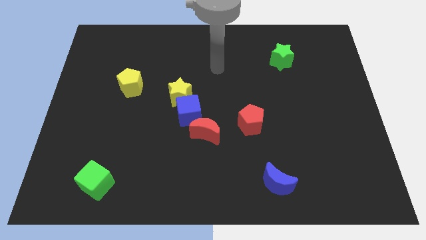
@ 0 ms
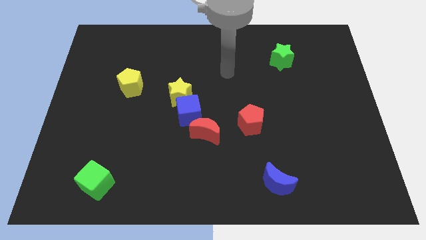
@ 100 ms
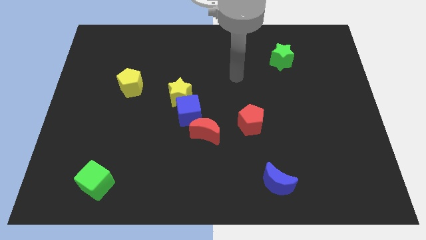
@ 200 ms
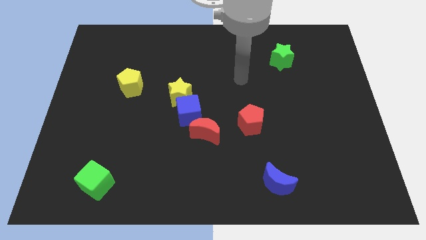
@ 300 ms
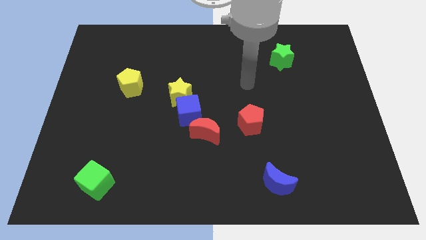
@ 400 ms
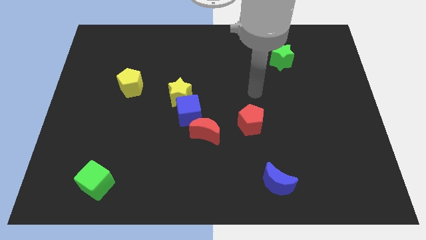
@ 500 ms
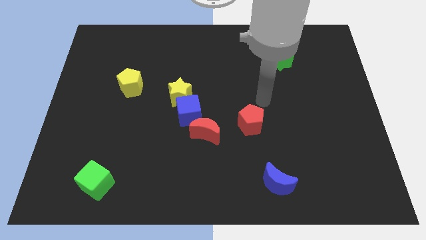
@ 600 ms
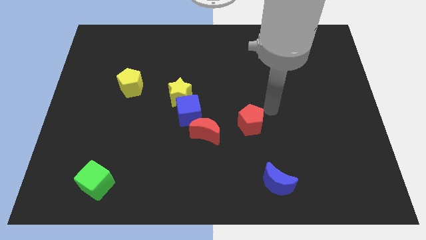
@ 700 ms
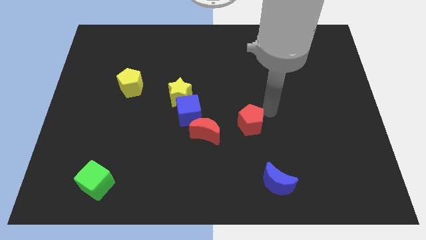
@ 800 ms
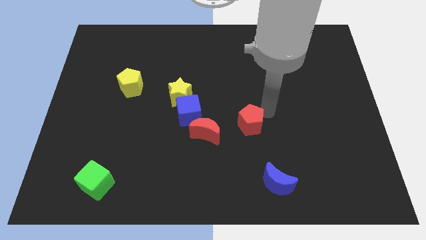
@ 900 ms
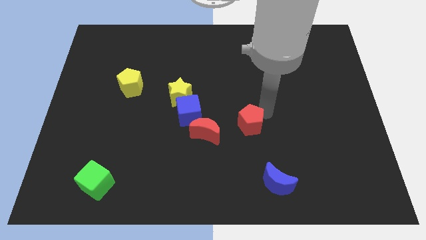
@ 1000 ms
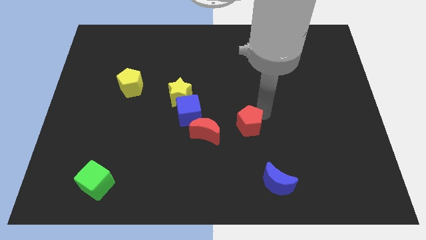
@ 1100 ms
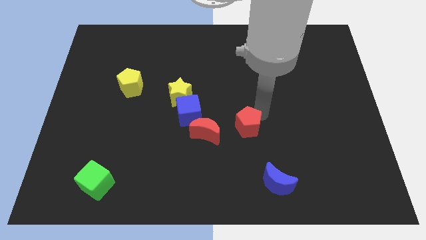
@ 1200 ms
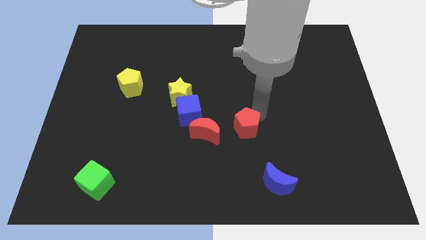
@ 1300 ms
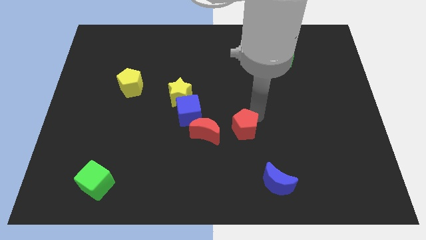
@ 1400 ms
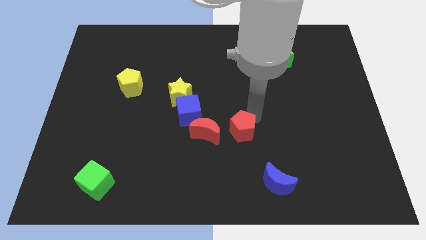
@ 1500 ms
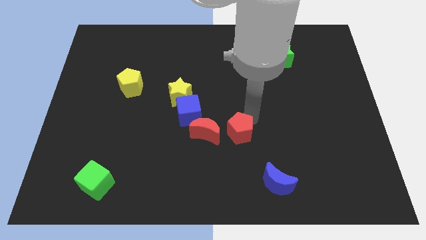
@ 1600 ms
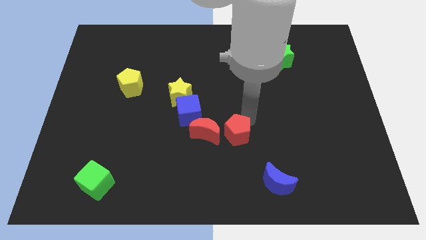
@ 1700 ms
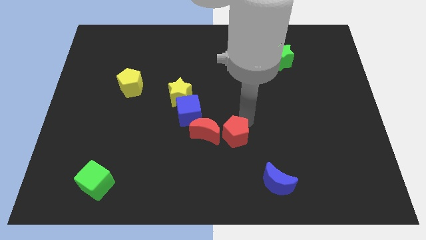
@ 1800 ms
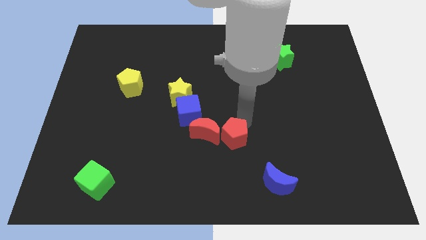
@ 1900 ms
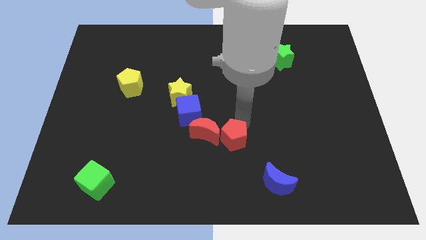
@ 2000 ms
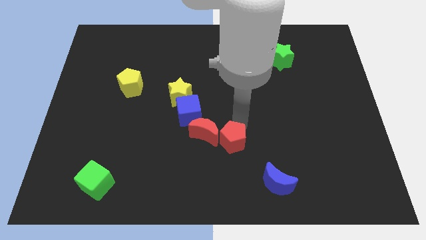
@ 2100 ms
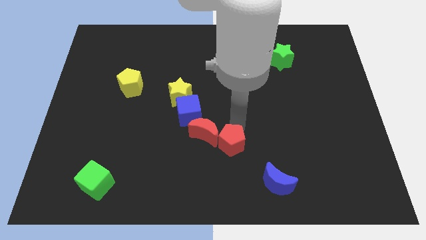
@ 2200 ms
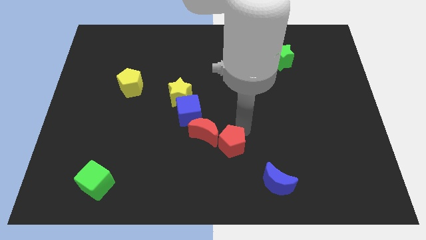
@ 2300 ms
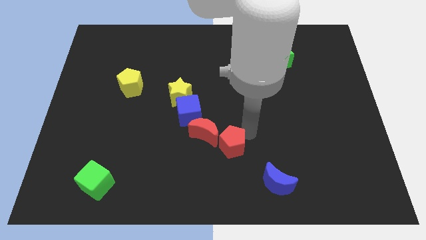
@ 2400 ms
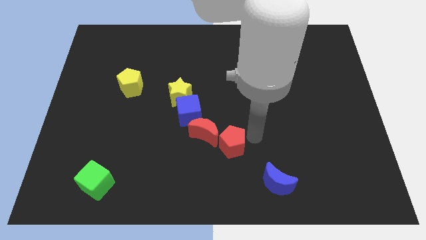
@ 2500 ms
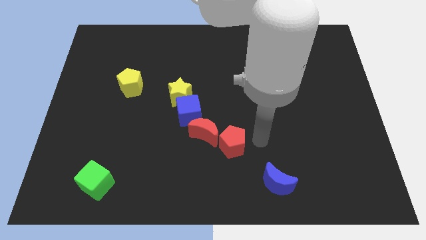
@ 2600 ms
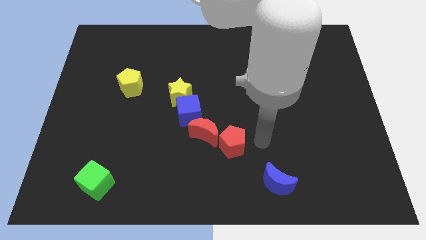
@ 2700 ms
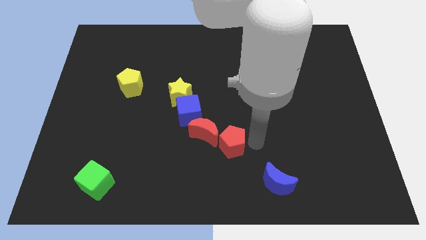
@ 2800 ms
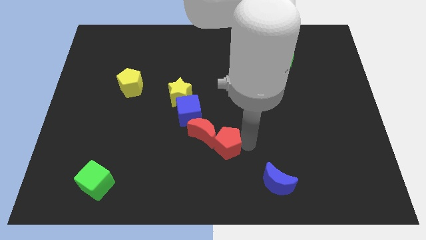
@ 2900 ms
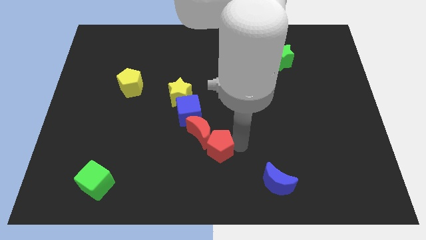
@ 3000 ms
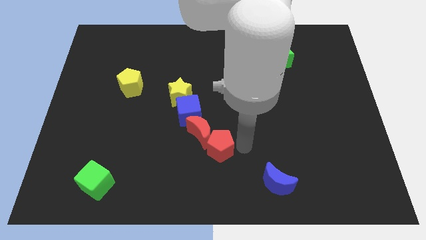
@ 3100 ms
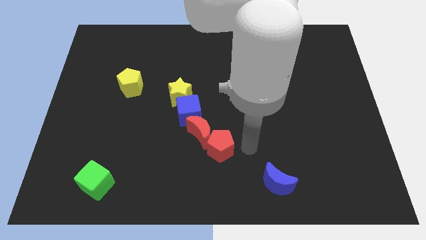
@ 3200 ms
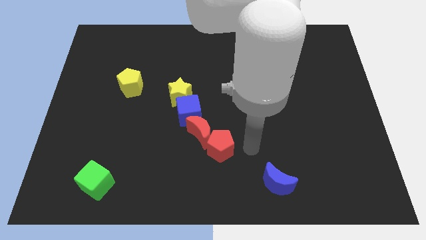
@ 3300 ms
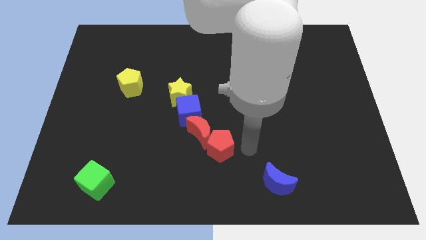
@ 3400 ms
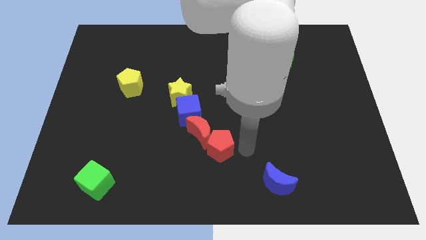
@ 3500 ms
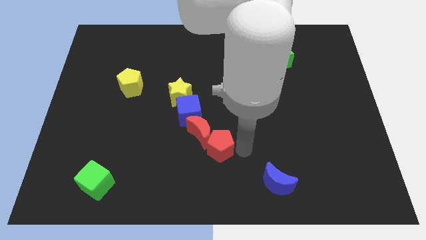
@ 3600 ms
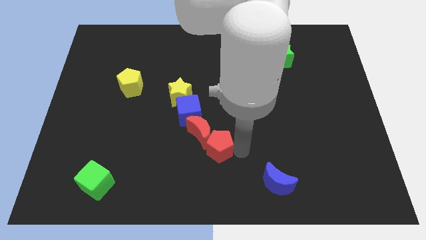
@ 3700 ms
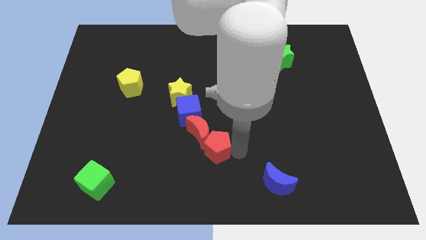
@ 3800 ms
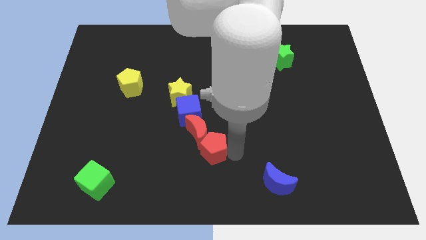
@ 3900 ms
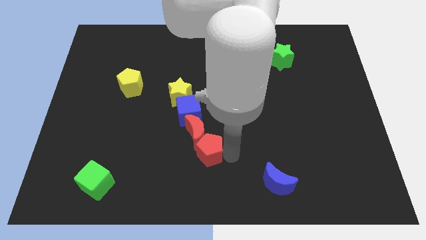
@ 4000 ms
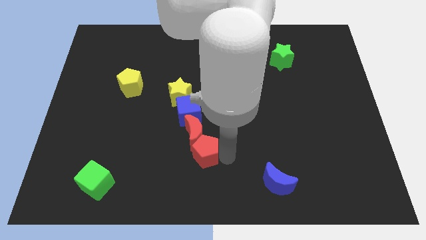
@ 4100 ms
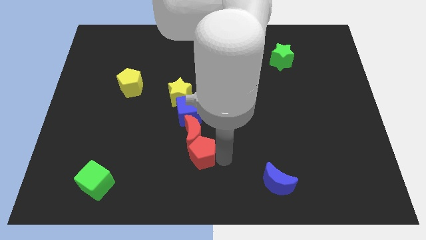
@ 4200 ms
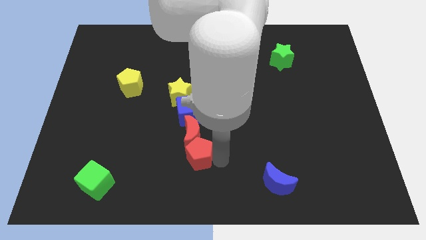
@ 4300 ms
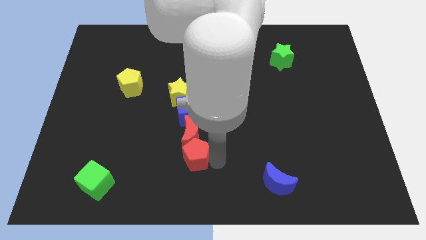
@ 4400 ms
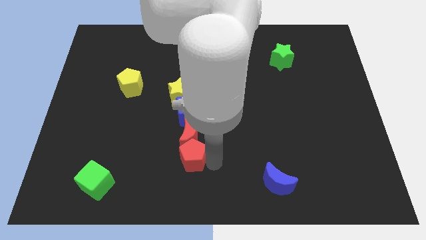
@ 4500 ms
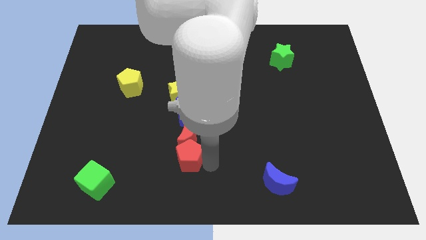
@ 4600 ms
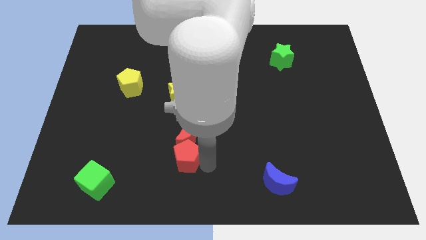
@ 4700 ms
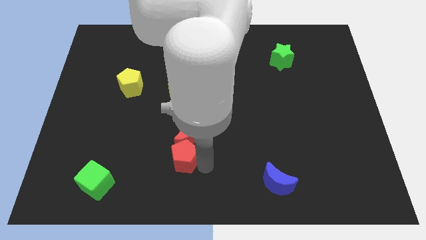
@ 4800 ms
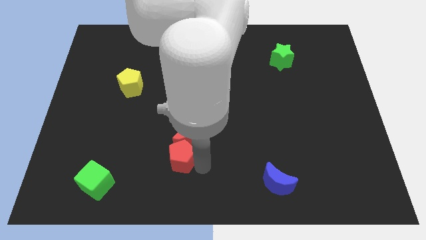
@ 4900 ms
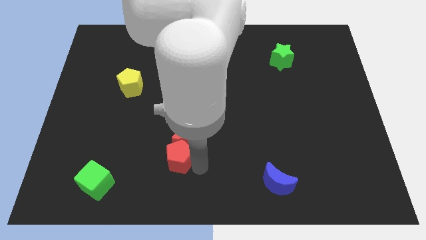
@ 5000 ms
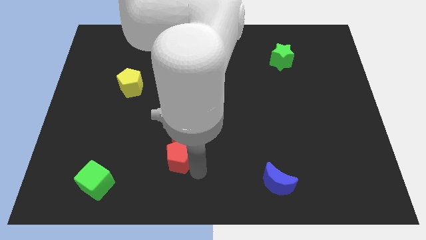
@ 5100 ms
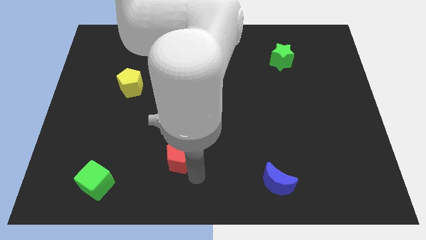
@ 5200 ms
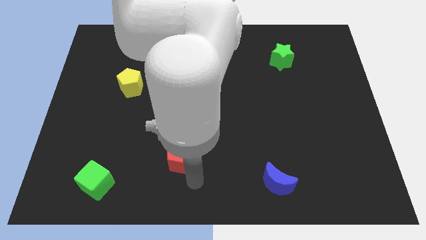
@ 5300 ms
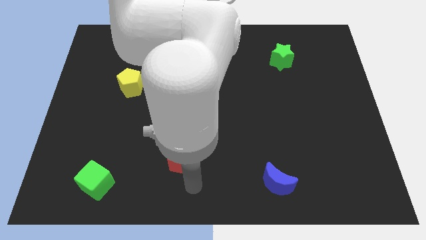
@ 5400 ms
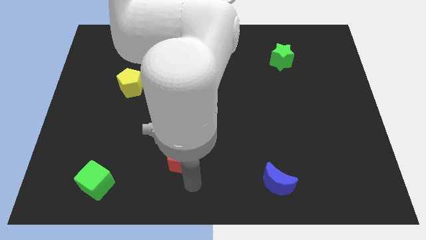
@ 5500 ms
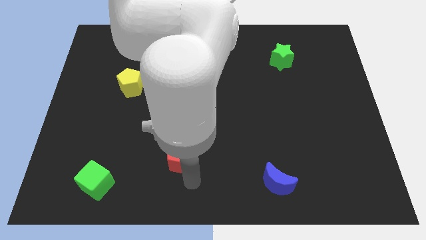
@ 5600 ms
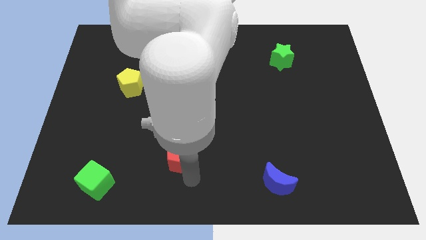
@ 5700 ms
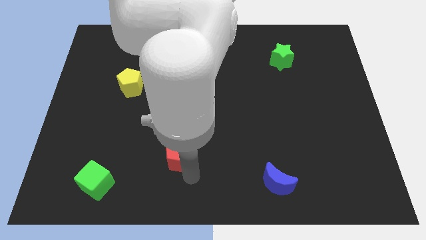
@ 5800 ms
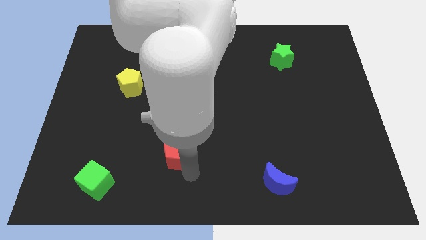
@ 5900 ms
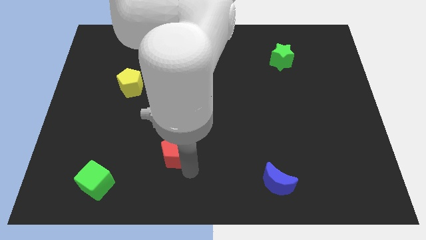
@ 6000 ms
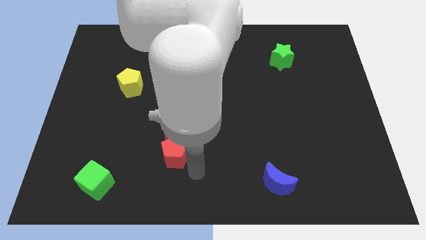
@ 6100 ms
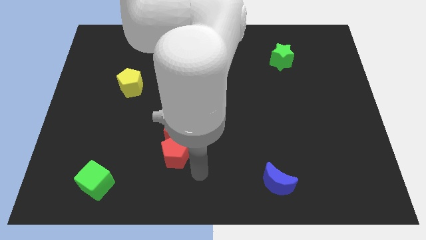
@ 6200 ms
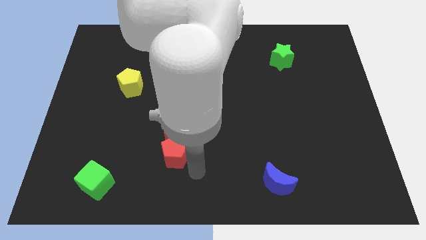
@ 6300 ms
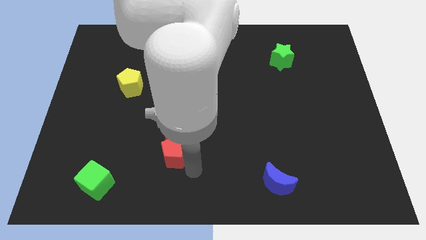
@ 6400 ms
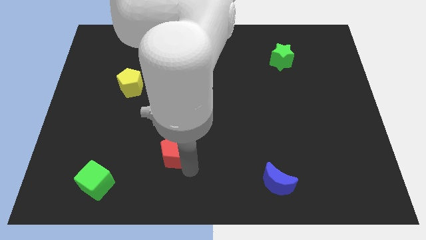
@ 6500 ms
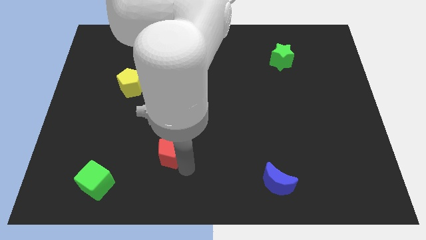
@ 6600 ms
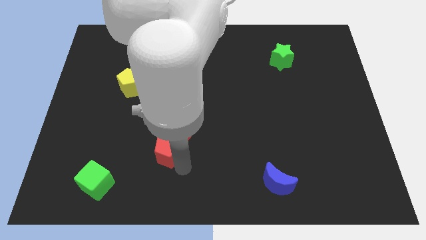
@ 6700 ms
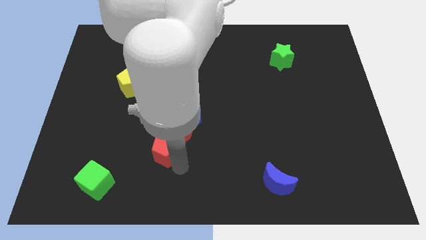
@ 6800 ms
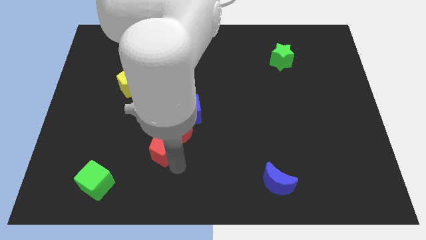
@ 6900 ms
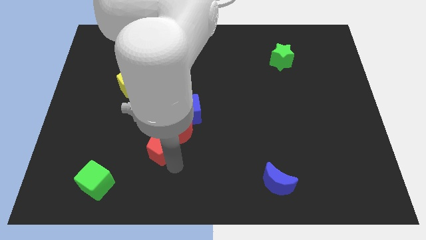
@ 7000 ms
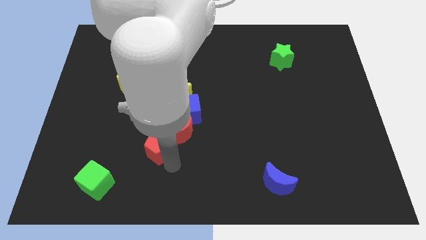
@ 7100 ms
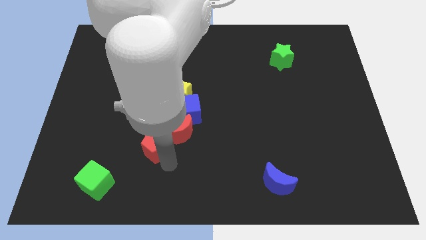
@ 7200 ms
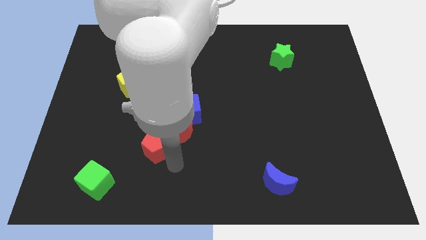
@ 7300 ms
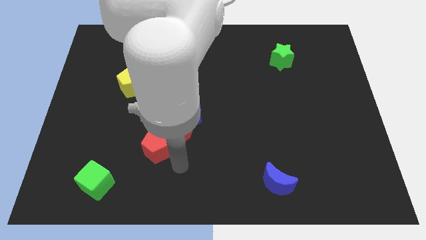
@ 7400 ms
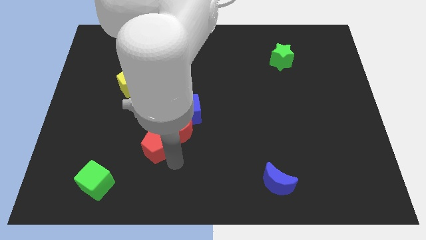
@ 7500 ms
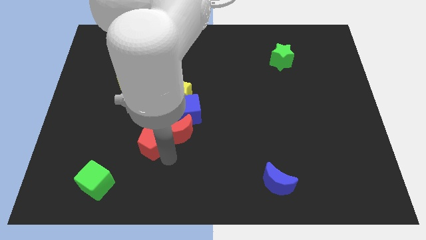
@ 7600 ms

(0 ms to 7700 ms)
push the red pentagon to the left
